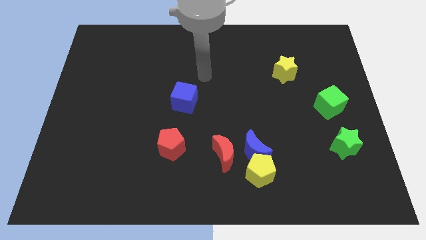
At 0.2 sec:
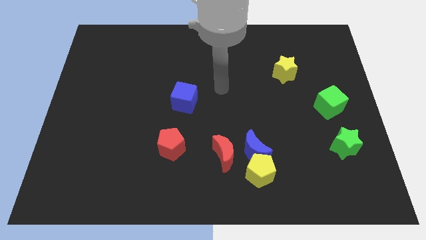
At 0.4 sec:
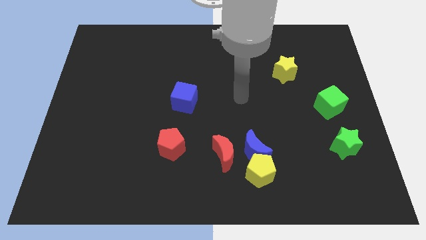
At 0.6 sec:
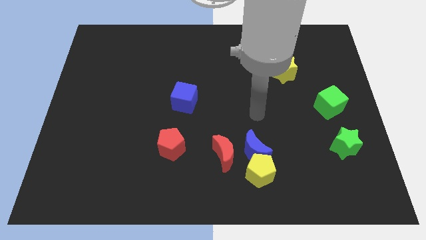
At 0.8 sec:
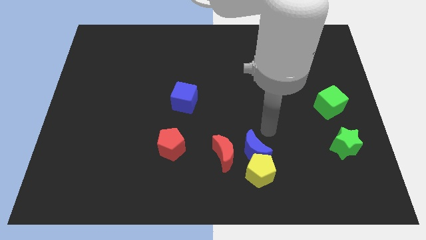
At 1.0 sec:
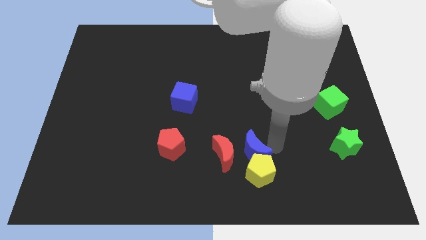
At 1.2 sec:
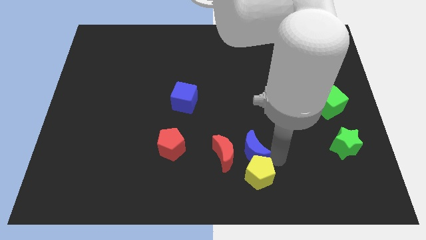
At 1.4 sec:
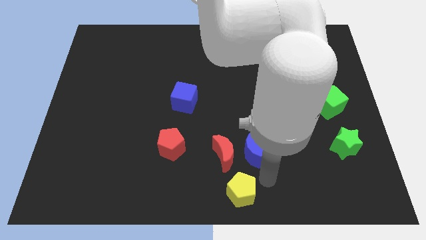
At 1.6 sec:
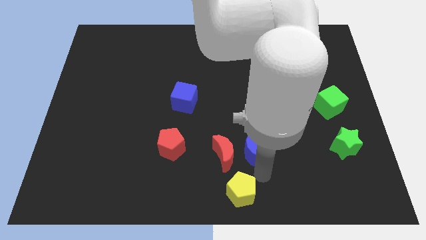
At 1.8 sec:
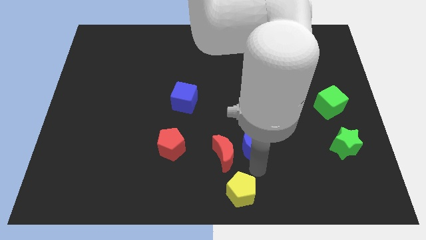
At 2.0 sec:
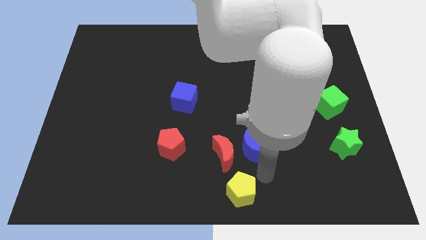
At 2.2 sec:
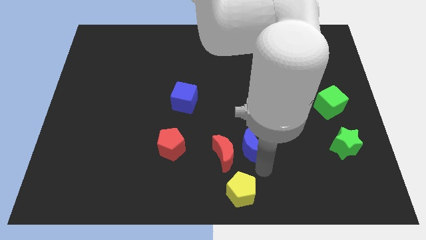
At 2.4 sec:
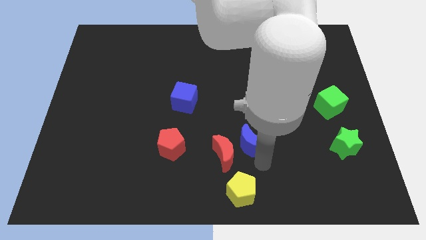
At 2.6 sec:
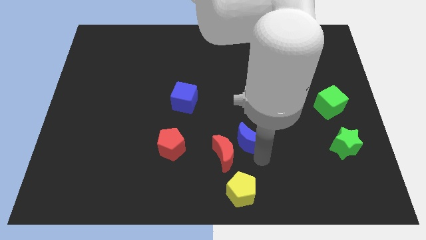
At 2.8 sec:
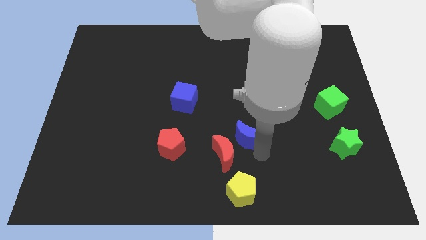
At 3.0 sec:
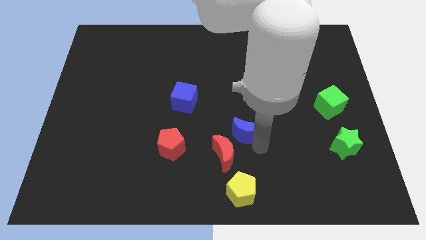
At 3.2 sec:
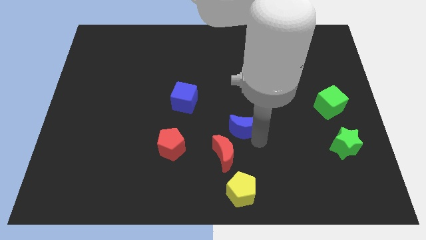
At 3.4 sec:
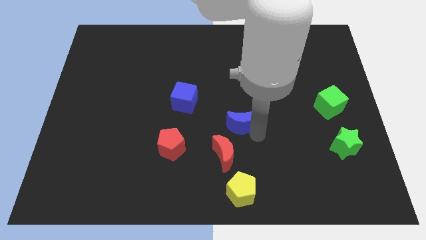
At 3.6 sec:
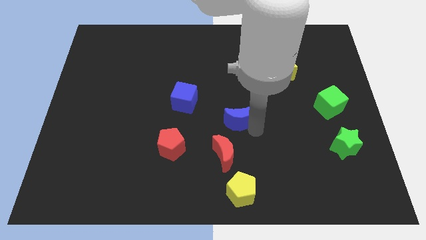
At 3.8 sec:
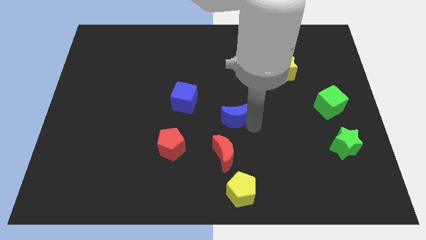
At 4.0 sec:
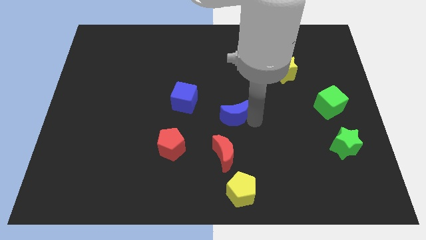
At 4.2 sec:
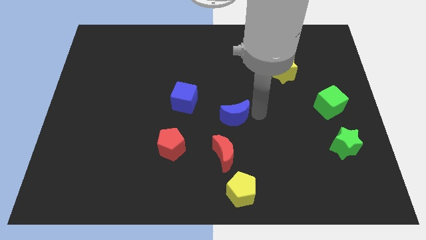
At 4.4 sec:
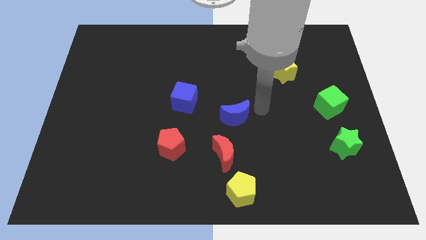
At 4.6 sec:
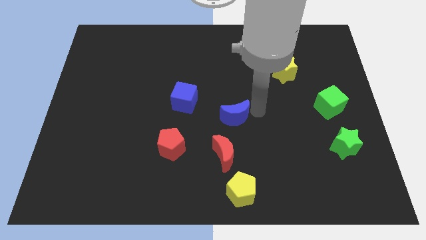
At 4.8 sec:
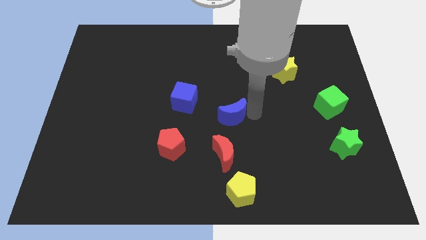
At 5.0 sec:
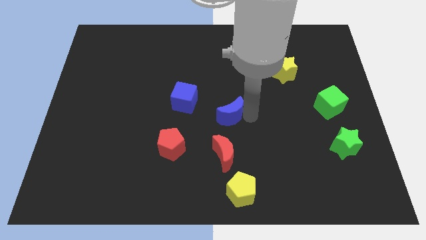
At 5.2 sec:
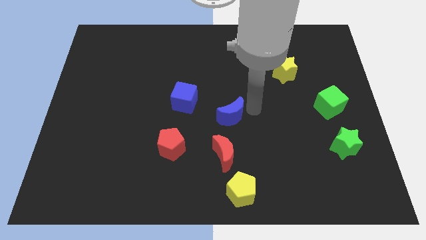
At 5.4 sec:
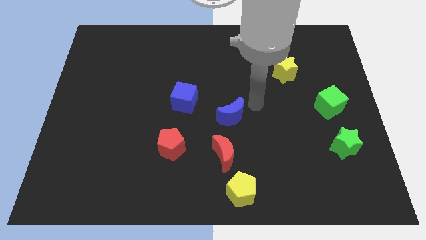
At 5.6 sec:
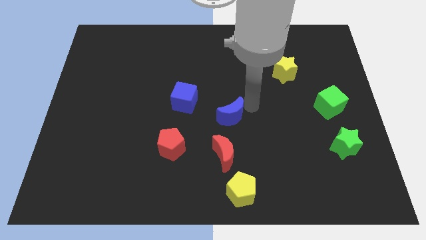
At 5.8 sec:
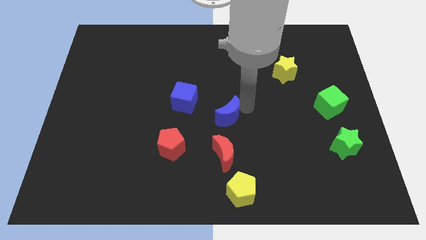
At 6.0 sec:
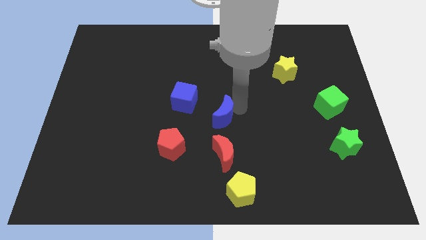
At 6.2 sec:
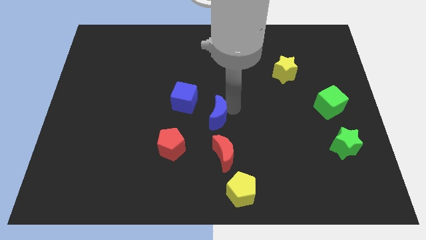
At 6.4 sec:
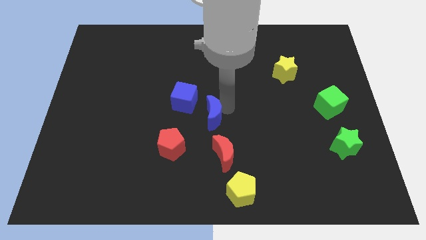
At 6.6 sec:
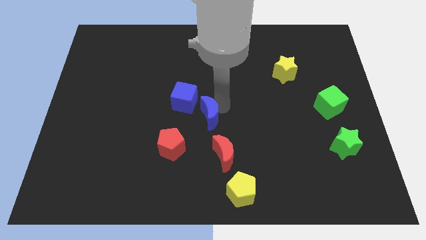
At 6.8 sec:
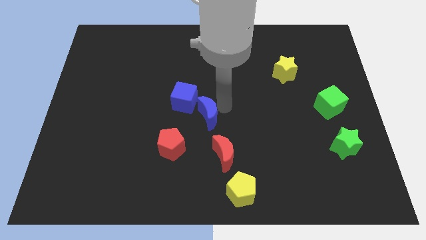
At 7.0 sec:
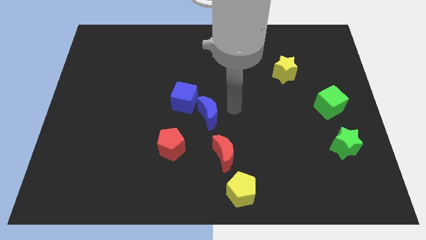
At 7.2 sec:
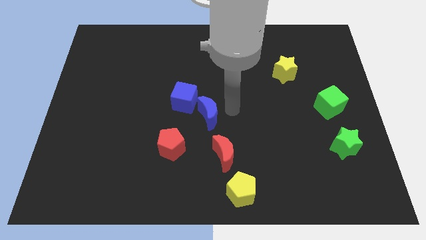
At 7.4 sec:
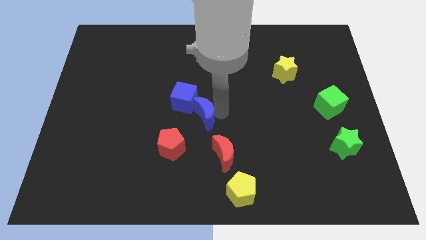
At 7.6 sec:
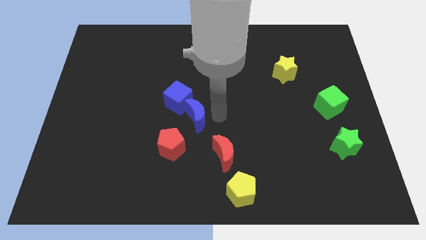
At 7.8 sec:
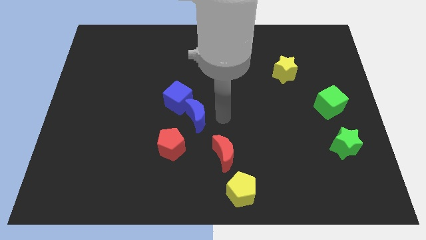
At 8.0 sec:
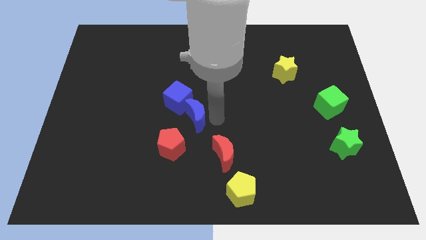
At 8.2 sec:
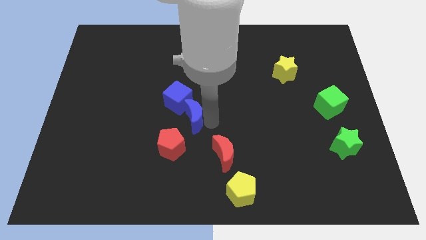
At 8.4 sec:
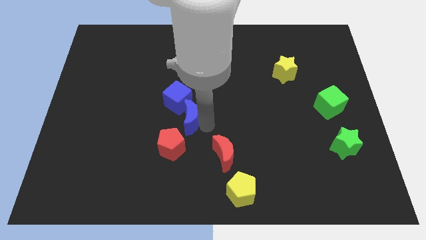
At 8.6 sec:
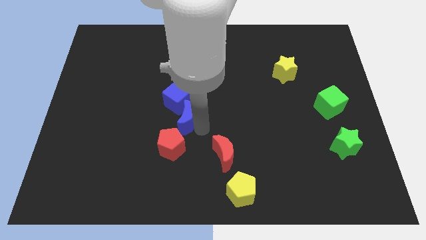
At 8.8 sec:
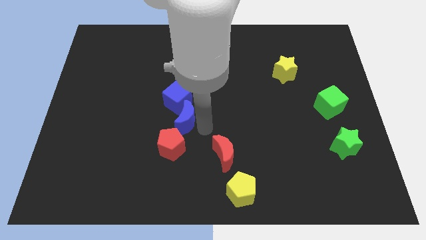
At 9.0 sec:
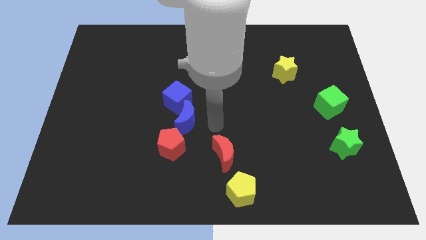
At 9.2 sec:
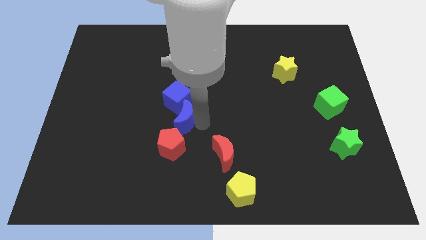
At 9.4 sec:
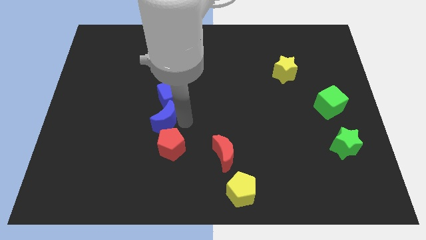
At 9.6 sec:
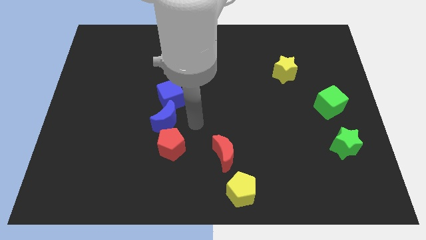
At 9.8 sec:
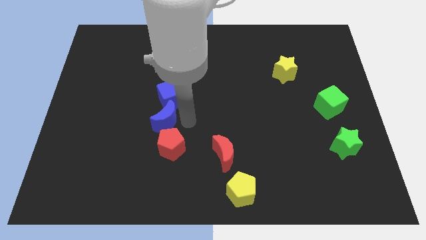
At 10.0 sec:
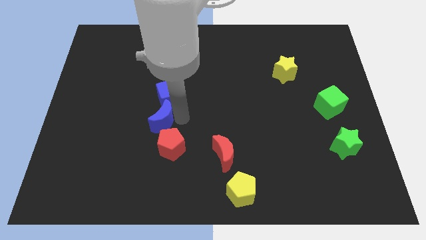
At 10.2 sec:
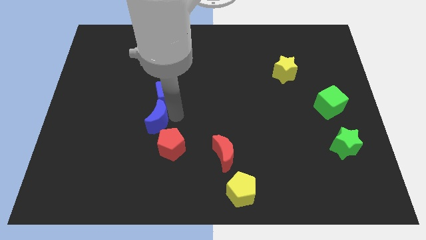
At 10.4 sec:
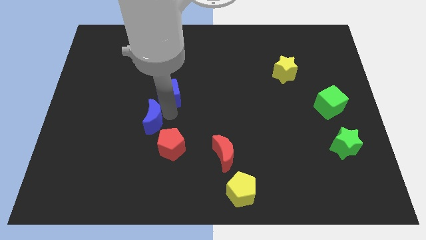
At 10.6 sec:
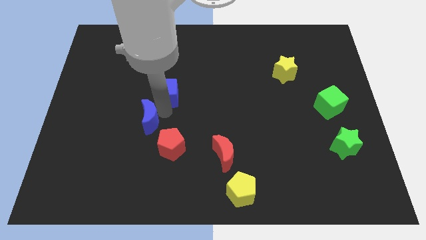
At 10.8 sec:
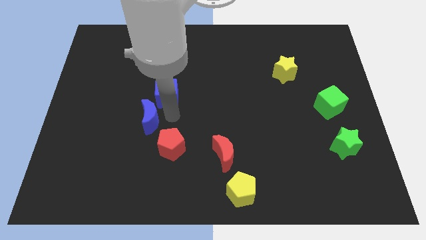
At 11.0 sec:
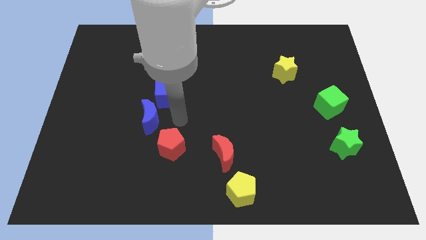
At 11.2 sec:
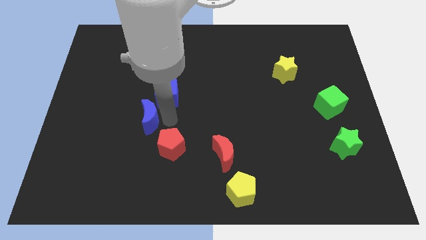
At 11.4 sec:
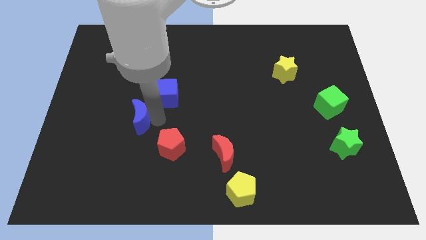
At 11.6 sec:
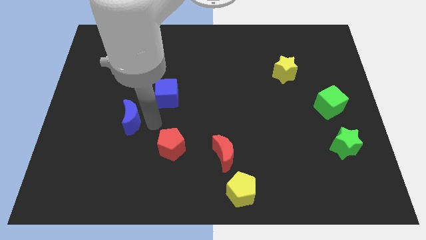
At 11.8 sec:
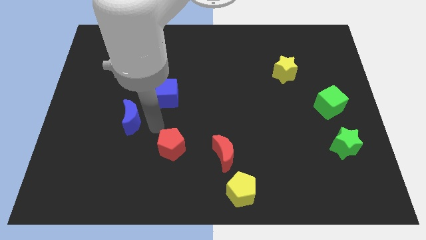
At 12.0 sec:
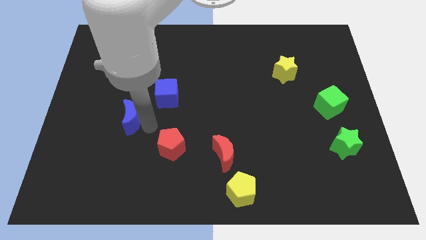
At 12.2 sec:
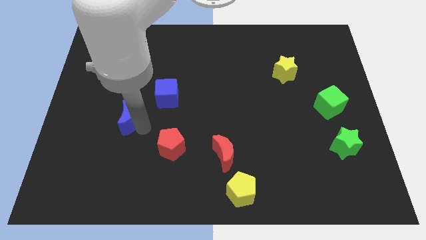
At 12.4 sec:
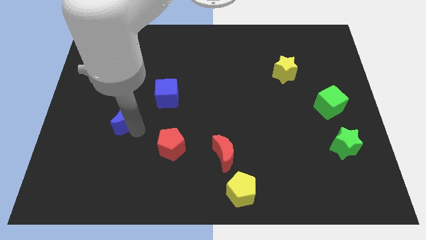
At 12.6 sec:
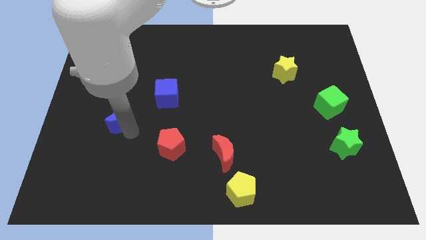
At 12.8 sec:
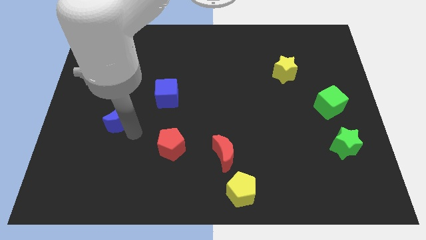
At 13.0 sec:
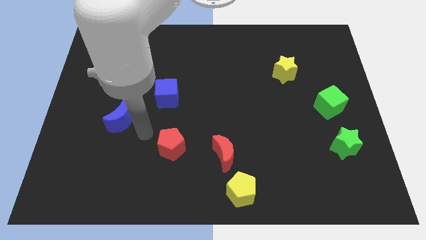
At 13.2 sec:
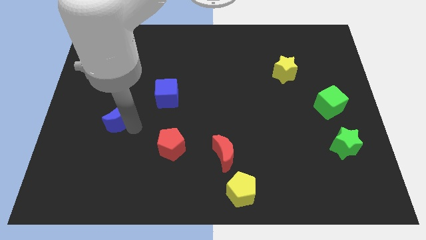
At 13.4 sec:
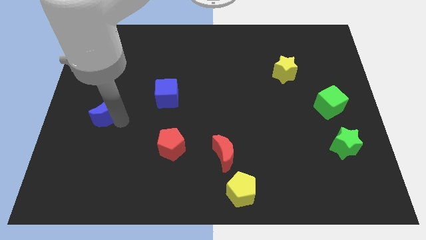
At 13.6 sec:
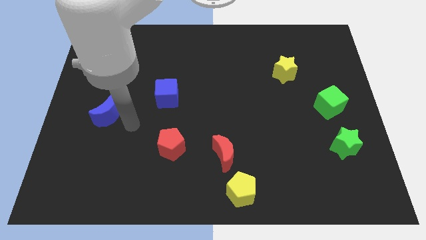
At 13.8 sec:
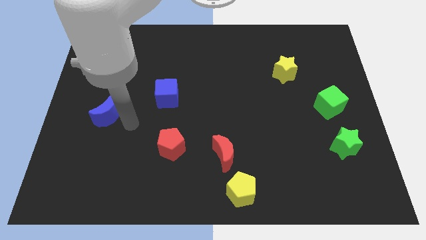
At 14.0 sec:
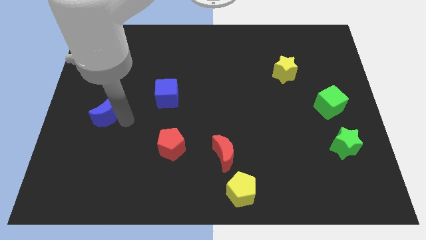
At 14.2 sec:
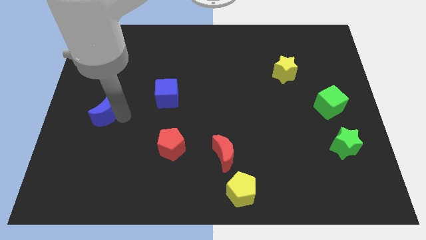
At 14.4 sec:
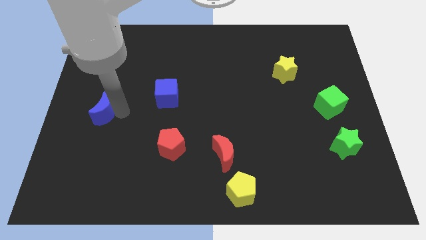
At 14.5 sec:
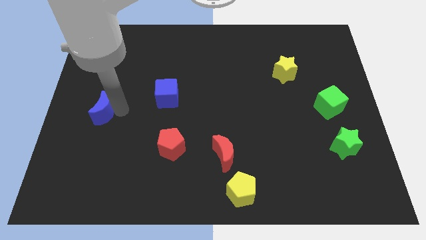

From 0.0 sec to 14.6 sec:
push the blue moon to the left side
